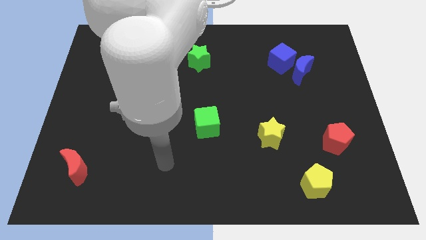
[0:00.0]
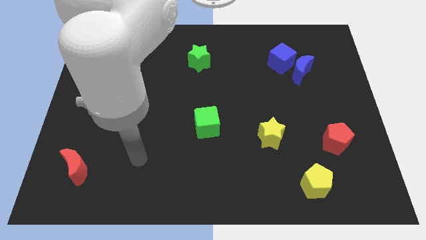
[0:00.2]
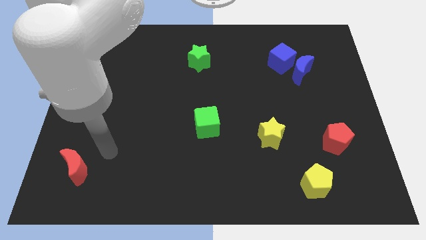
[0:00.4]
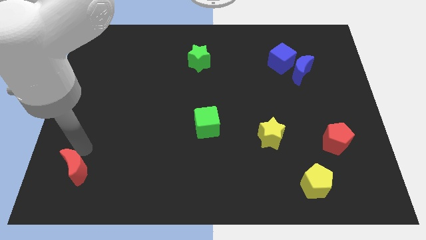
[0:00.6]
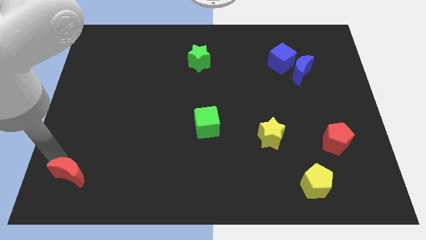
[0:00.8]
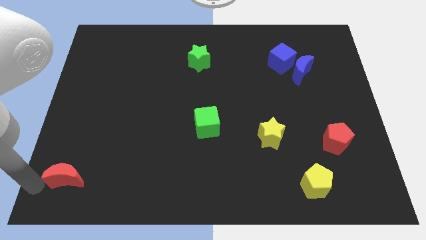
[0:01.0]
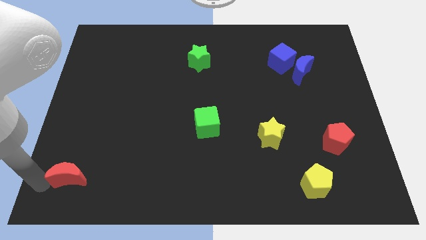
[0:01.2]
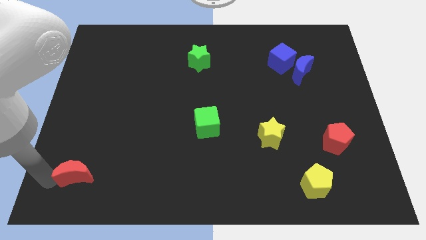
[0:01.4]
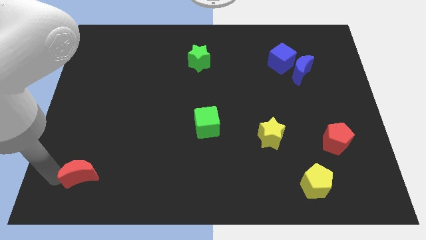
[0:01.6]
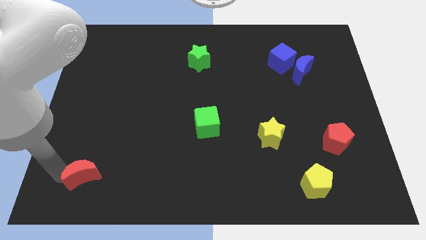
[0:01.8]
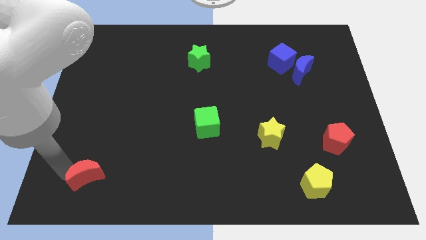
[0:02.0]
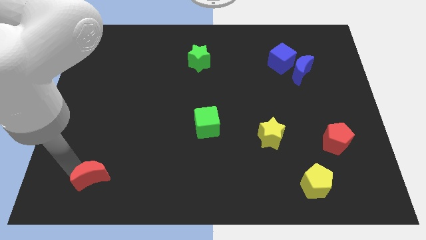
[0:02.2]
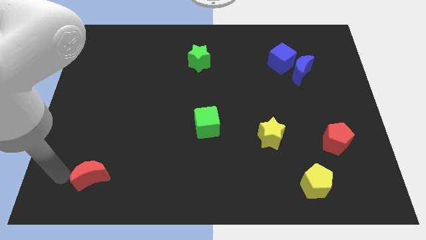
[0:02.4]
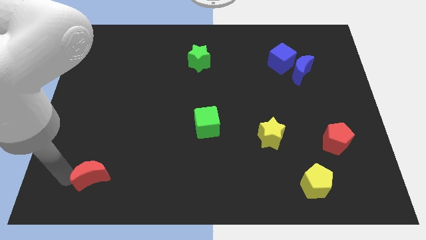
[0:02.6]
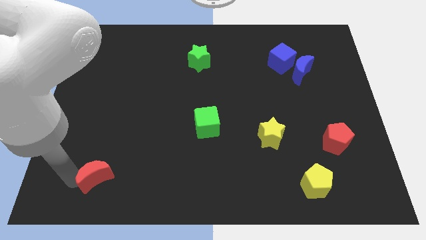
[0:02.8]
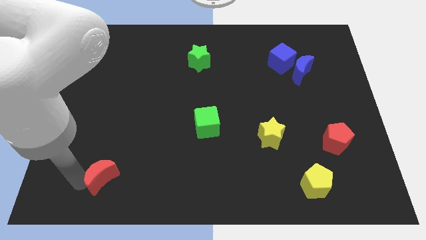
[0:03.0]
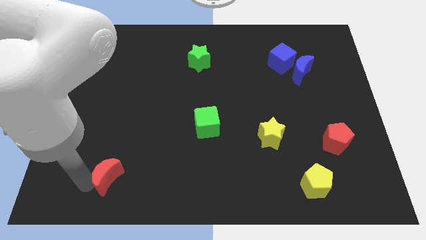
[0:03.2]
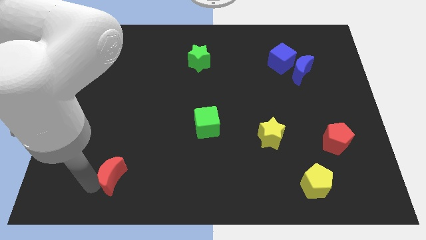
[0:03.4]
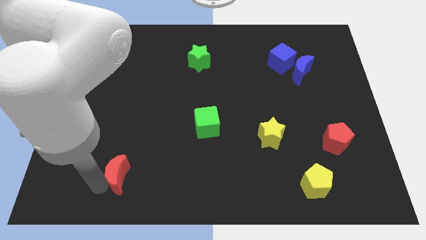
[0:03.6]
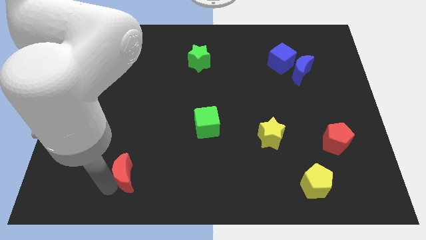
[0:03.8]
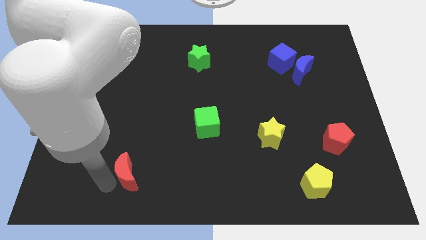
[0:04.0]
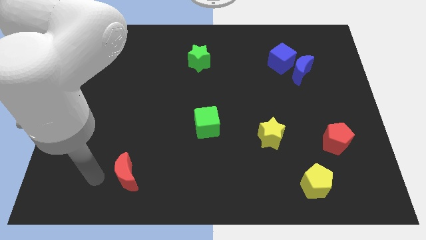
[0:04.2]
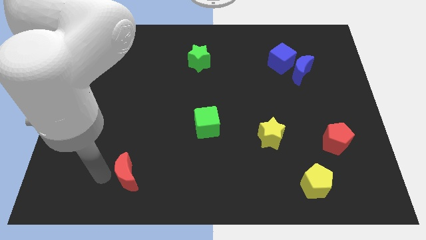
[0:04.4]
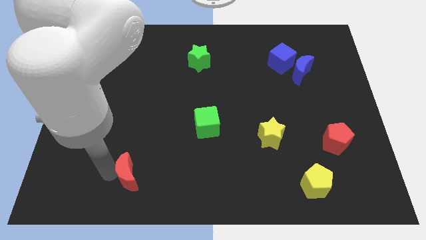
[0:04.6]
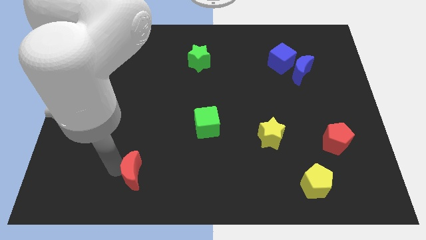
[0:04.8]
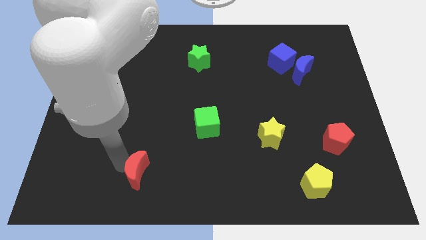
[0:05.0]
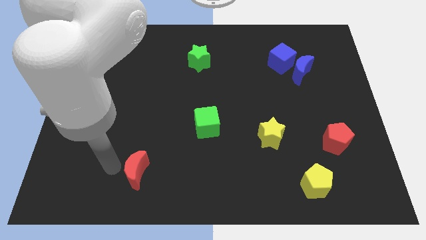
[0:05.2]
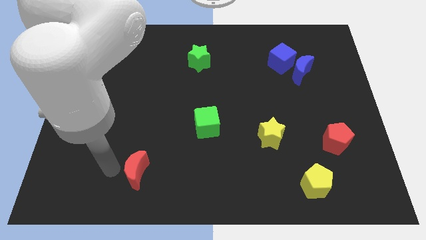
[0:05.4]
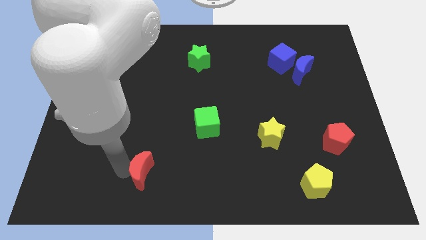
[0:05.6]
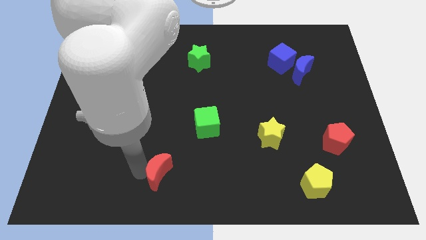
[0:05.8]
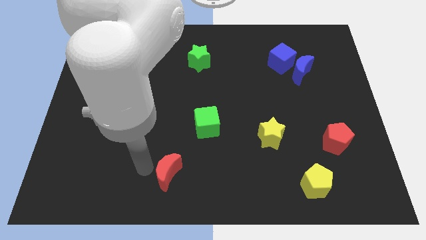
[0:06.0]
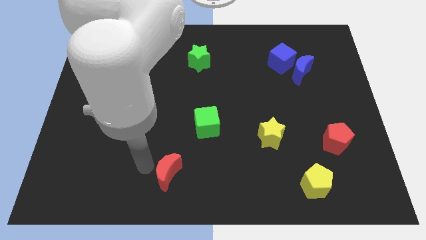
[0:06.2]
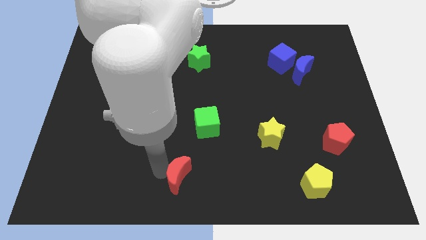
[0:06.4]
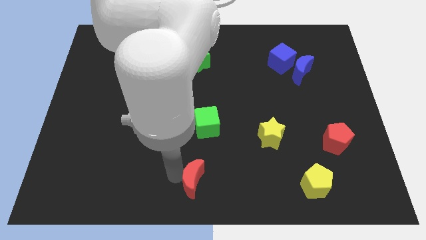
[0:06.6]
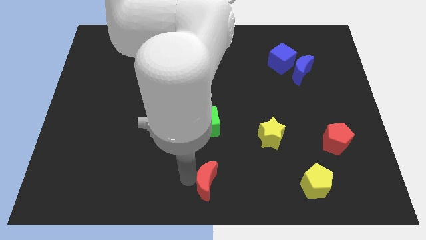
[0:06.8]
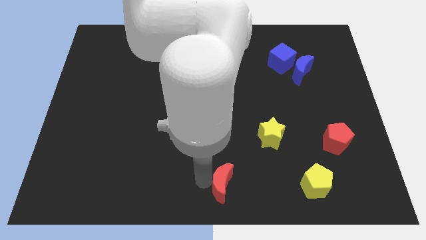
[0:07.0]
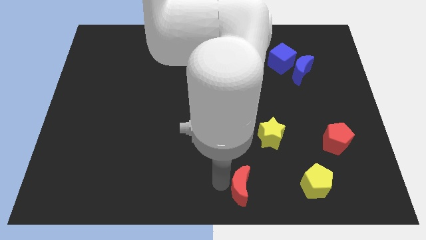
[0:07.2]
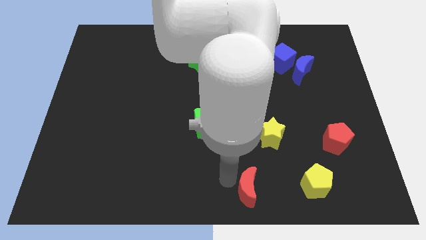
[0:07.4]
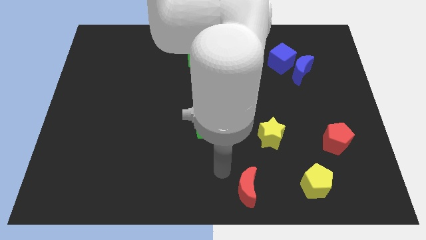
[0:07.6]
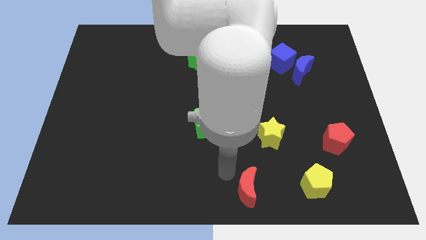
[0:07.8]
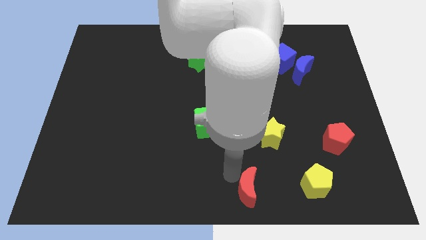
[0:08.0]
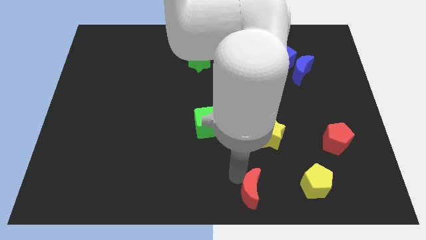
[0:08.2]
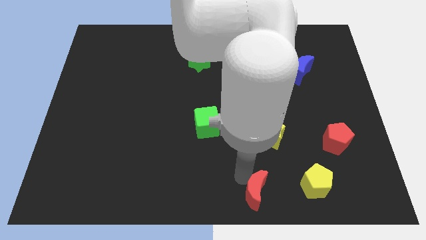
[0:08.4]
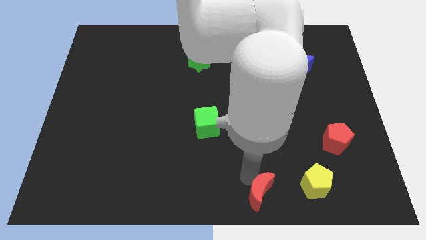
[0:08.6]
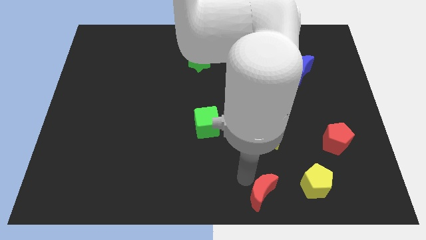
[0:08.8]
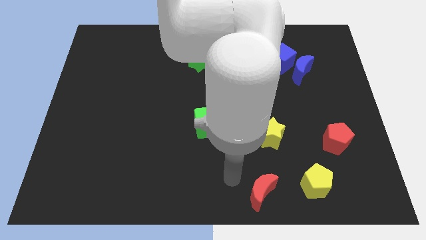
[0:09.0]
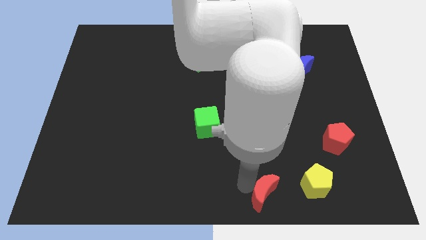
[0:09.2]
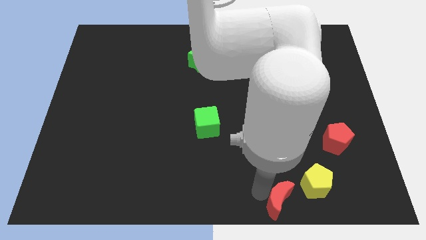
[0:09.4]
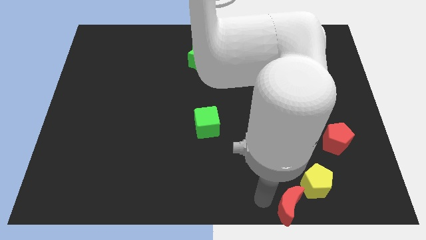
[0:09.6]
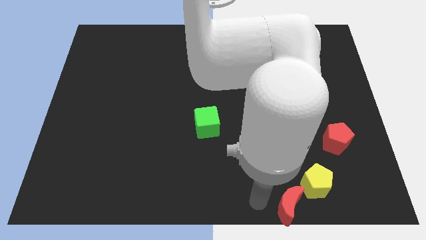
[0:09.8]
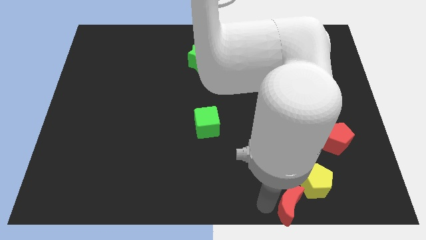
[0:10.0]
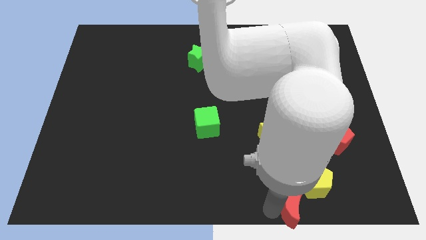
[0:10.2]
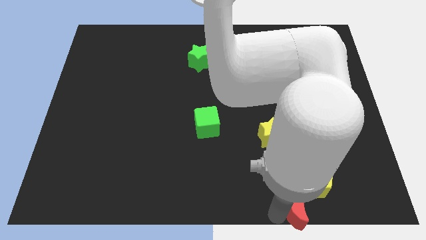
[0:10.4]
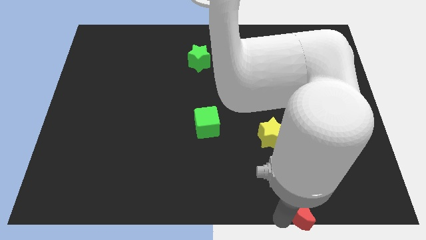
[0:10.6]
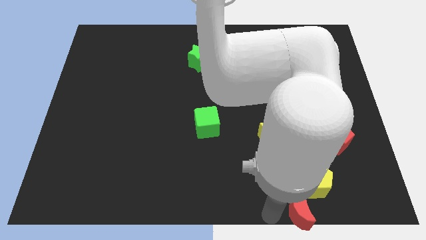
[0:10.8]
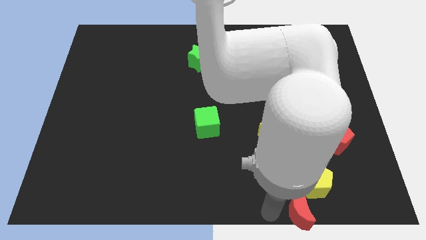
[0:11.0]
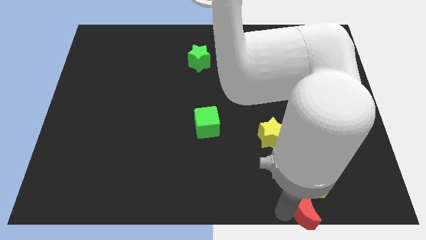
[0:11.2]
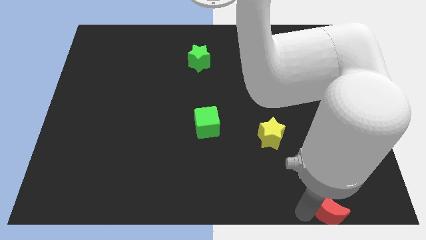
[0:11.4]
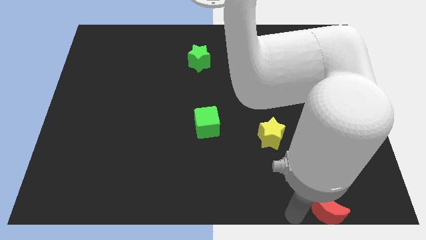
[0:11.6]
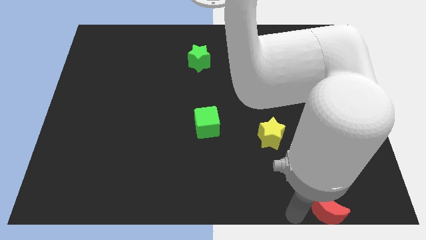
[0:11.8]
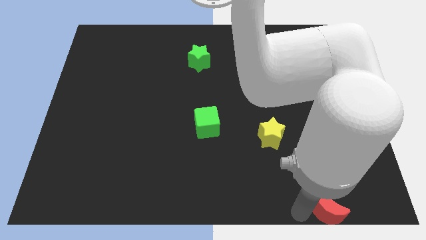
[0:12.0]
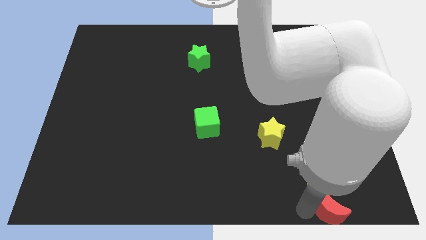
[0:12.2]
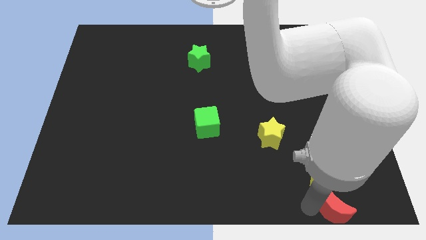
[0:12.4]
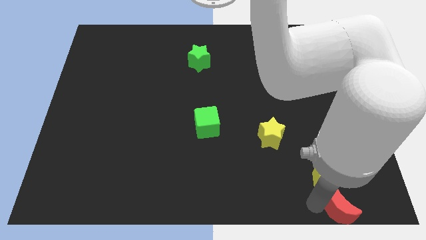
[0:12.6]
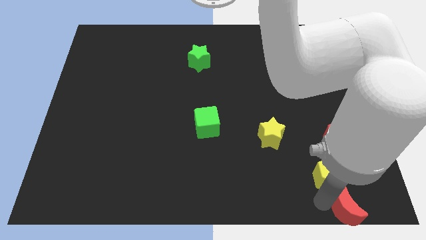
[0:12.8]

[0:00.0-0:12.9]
push the red moon to the bottom right corner
